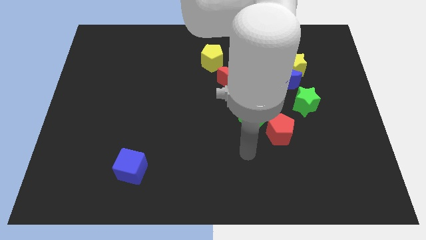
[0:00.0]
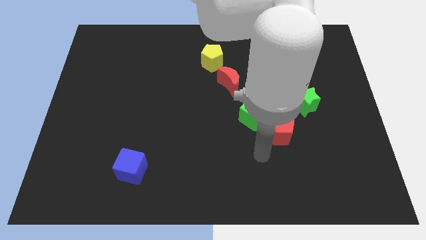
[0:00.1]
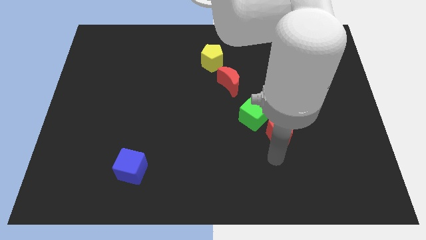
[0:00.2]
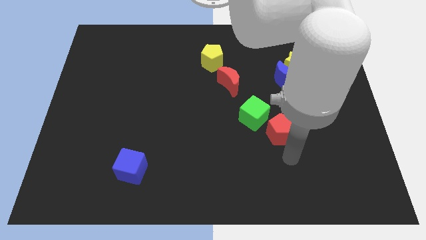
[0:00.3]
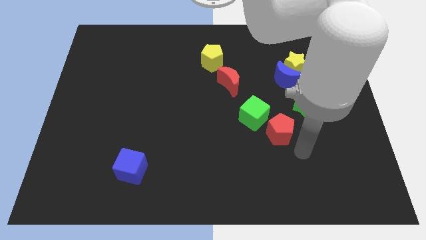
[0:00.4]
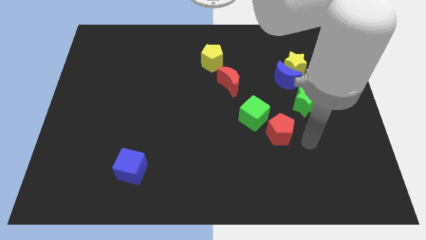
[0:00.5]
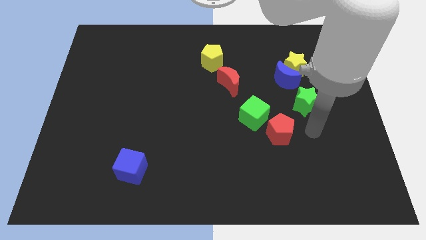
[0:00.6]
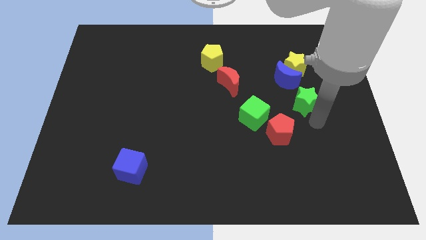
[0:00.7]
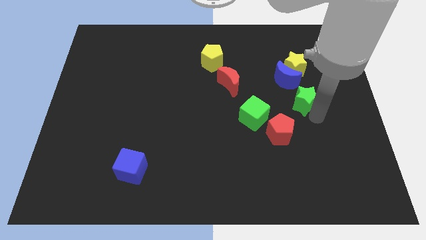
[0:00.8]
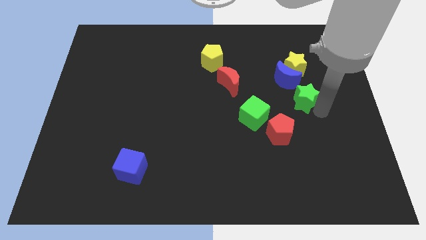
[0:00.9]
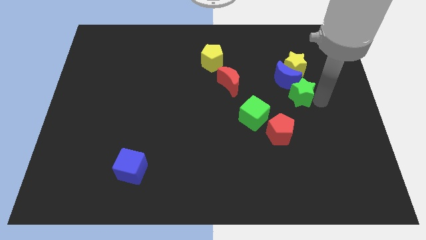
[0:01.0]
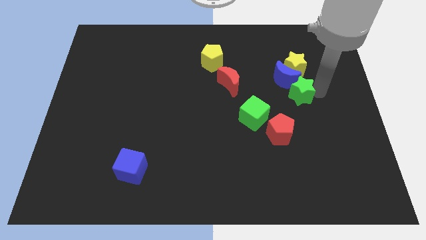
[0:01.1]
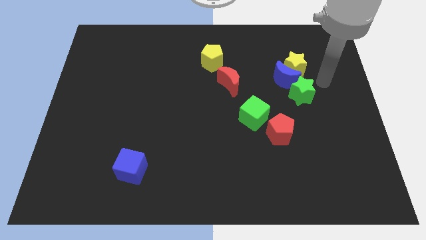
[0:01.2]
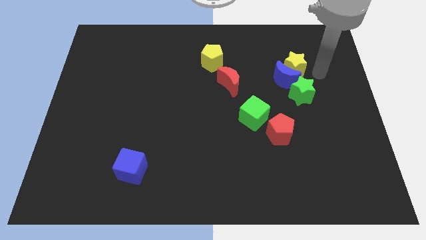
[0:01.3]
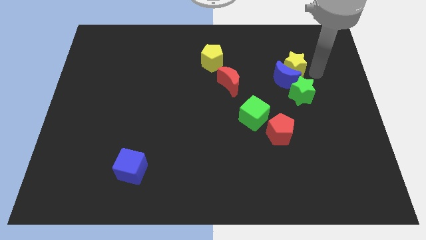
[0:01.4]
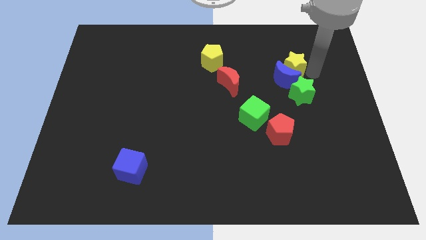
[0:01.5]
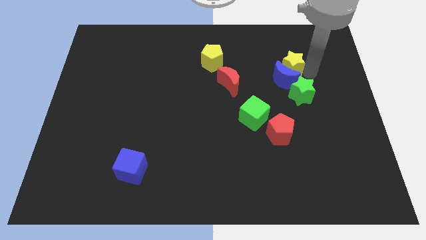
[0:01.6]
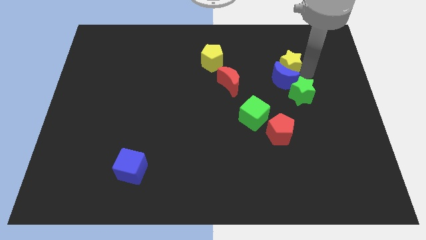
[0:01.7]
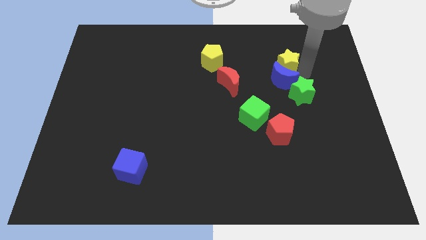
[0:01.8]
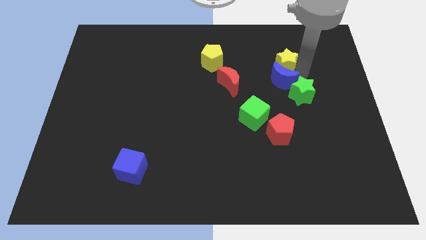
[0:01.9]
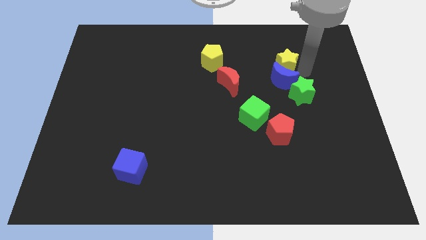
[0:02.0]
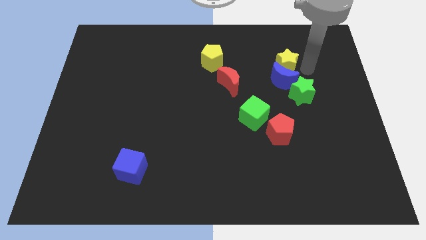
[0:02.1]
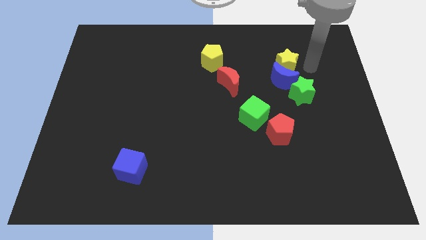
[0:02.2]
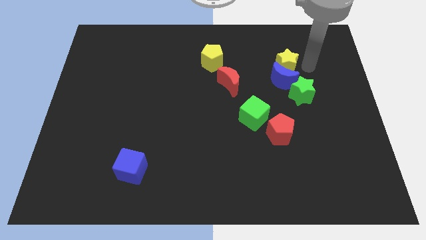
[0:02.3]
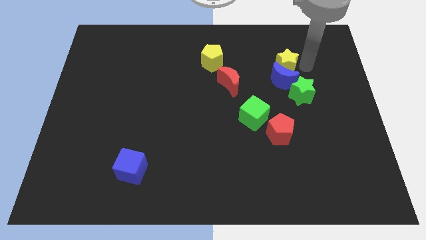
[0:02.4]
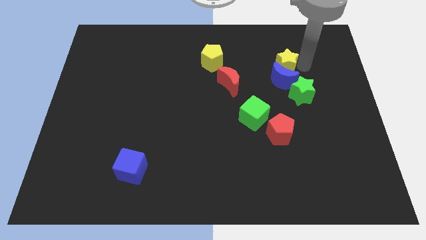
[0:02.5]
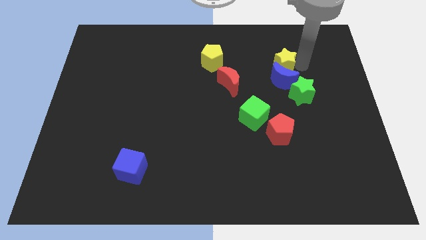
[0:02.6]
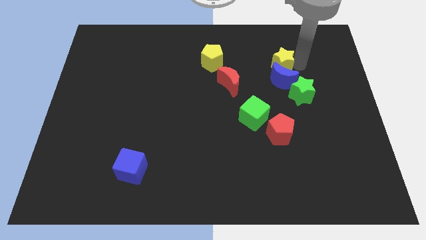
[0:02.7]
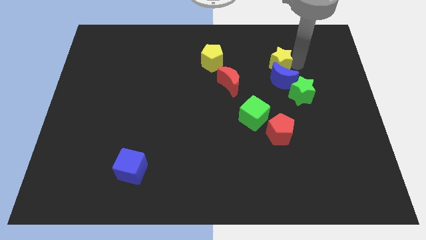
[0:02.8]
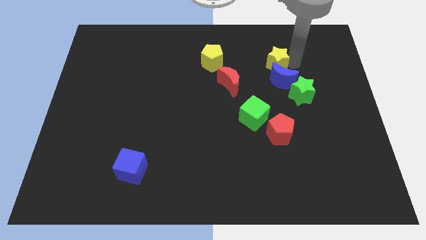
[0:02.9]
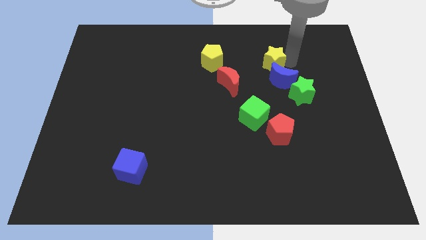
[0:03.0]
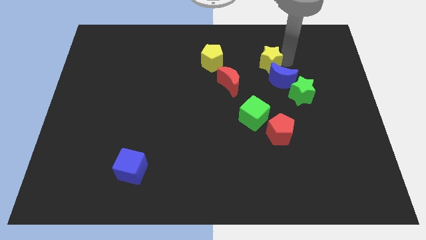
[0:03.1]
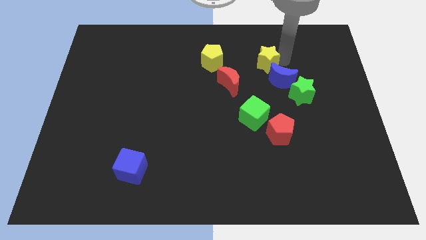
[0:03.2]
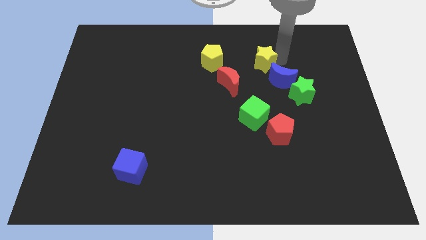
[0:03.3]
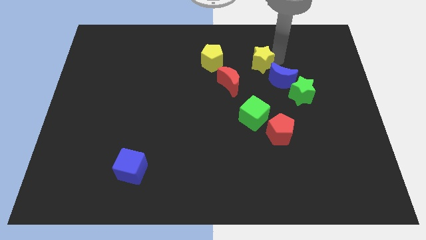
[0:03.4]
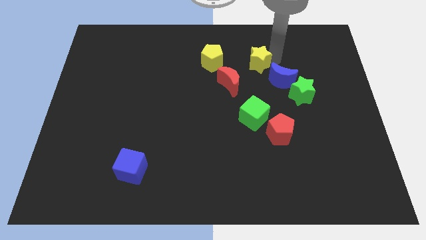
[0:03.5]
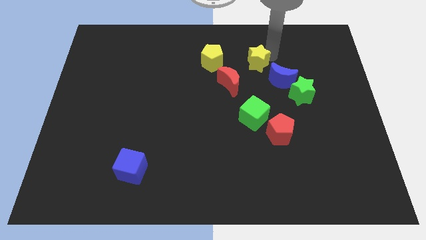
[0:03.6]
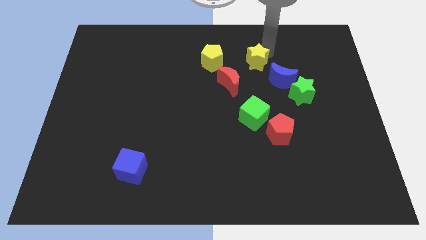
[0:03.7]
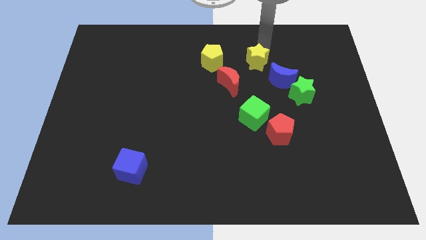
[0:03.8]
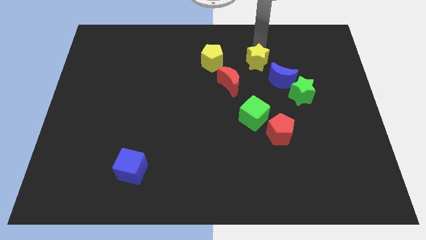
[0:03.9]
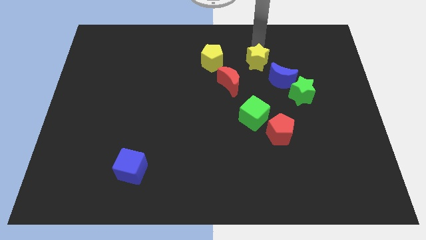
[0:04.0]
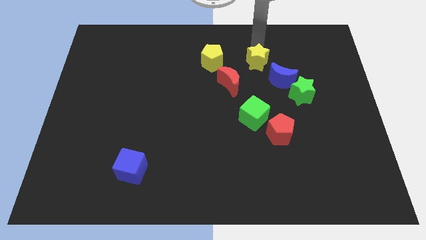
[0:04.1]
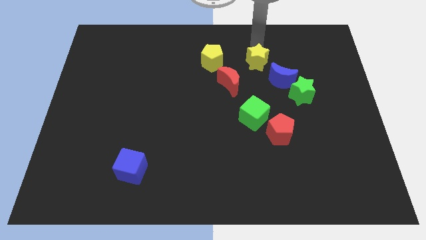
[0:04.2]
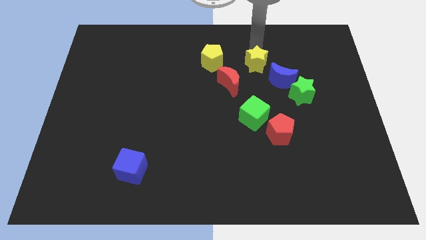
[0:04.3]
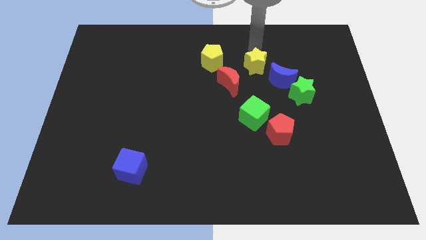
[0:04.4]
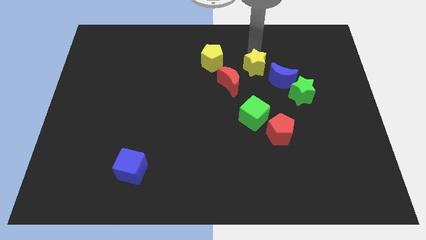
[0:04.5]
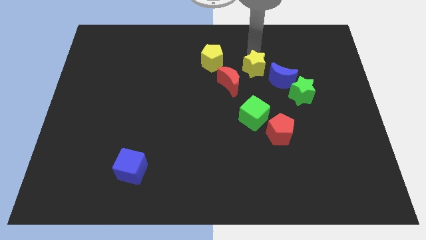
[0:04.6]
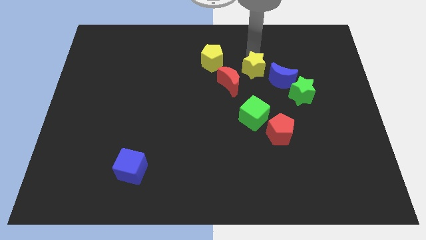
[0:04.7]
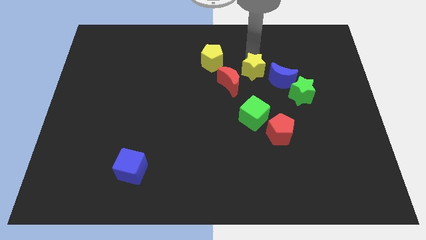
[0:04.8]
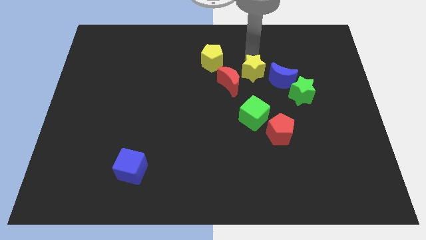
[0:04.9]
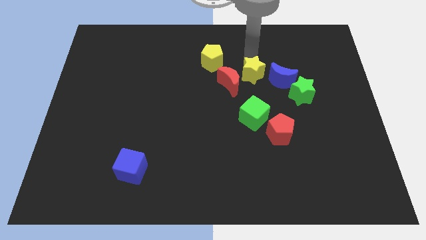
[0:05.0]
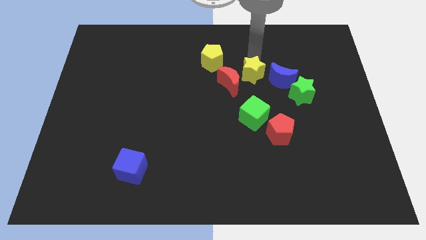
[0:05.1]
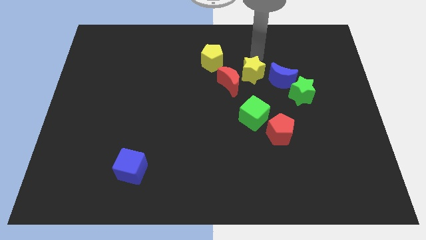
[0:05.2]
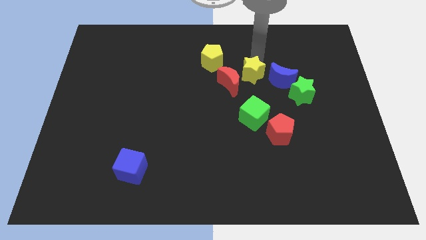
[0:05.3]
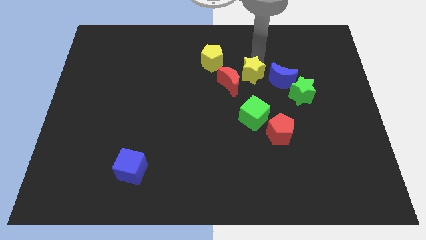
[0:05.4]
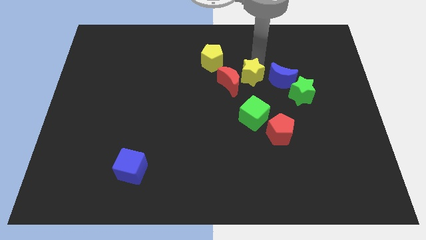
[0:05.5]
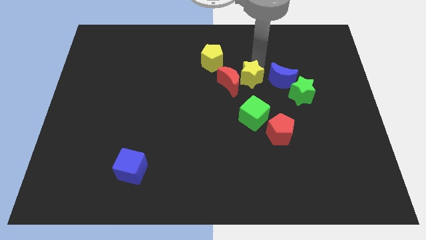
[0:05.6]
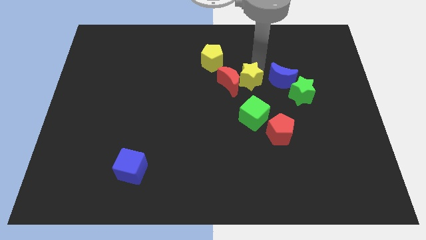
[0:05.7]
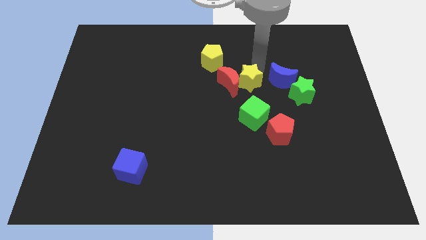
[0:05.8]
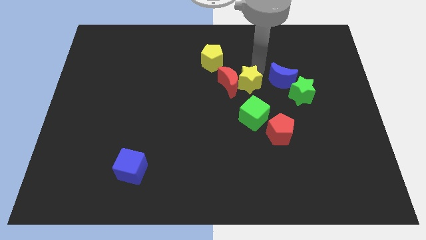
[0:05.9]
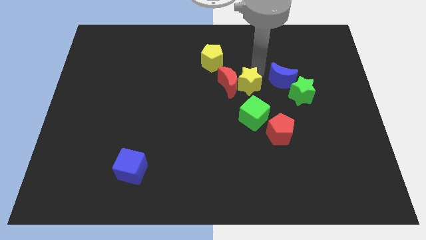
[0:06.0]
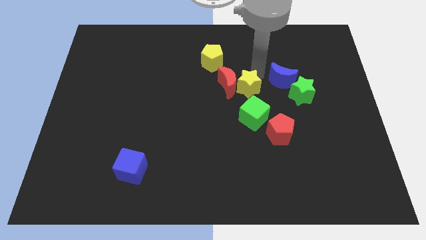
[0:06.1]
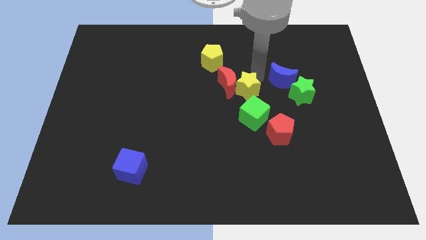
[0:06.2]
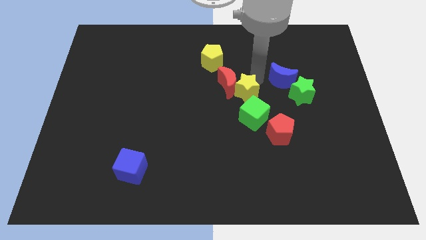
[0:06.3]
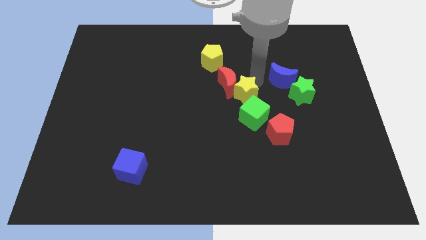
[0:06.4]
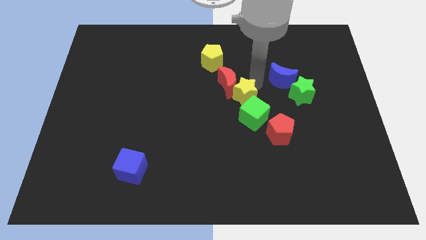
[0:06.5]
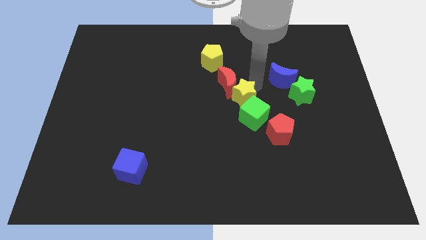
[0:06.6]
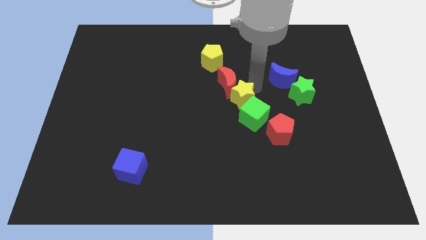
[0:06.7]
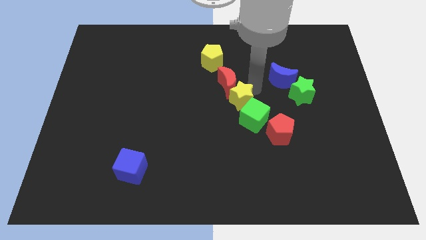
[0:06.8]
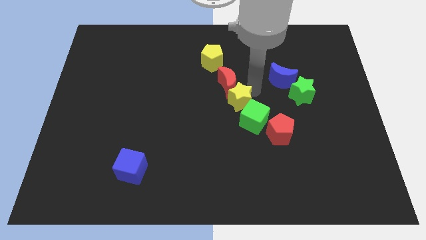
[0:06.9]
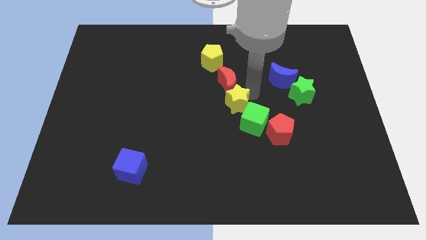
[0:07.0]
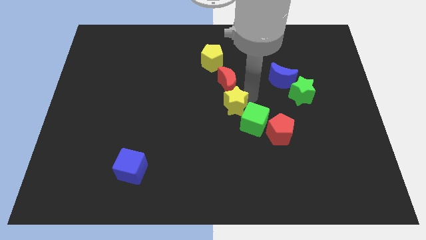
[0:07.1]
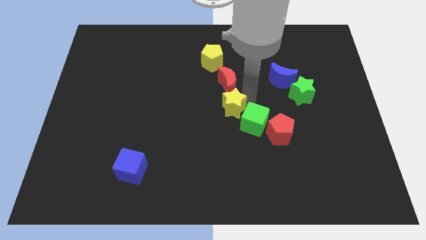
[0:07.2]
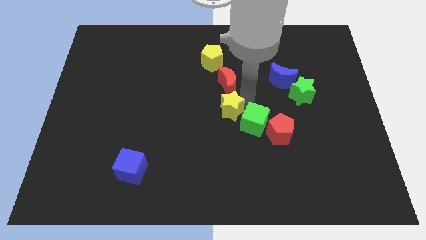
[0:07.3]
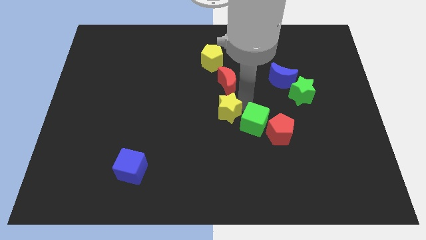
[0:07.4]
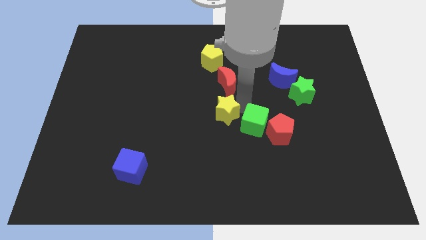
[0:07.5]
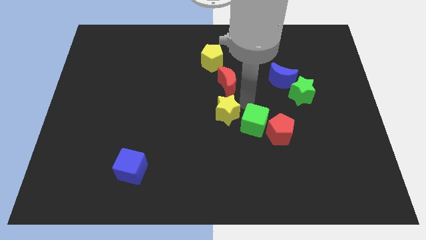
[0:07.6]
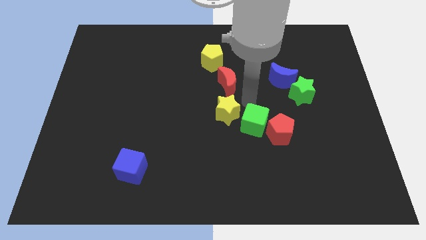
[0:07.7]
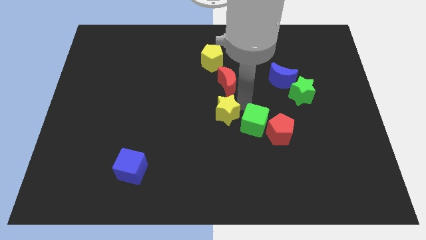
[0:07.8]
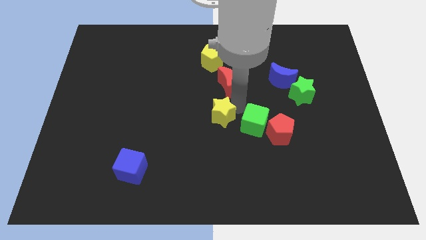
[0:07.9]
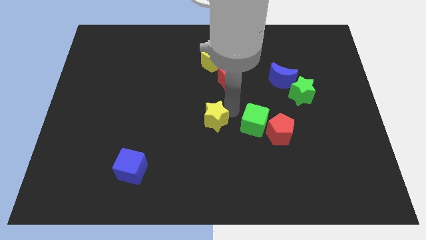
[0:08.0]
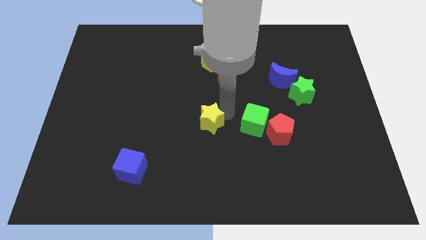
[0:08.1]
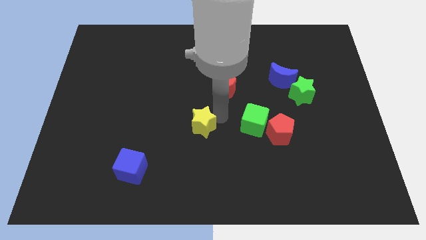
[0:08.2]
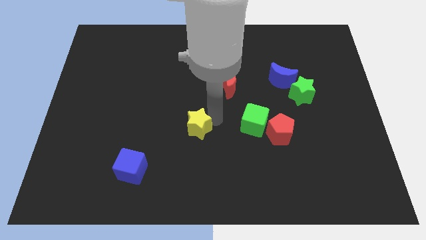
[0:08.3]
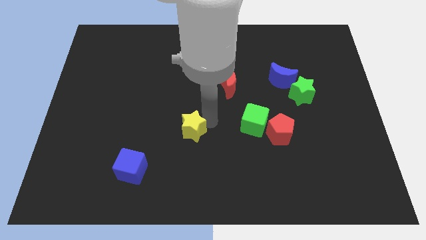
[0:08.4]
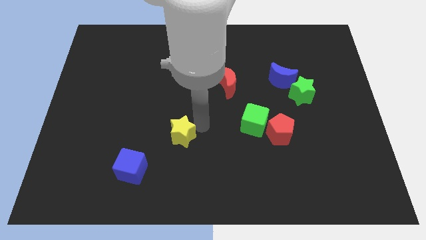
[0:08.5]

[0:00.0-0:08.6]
put the yellow star to the top right side of the blue cube
